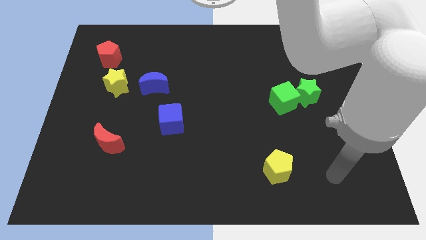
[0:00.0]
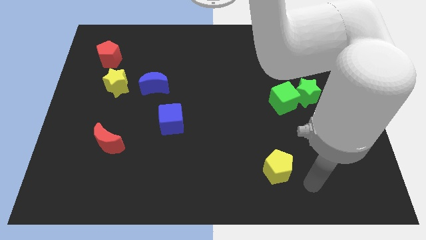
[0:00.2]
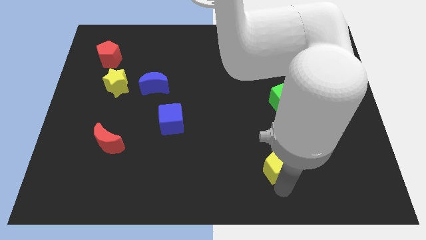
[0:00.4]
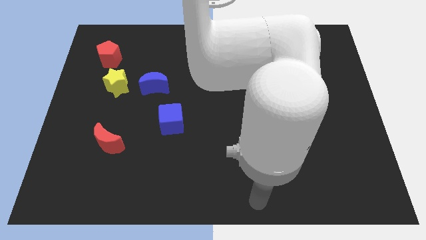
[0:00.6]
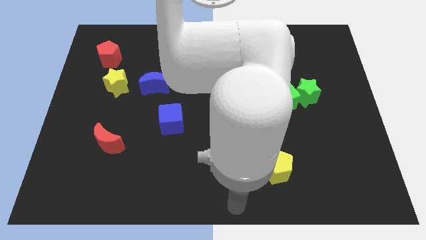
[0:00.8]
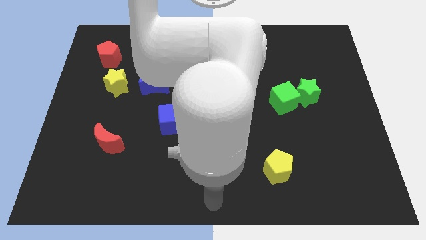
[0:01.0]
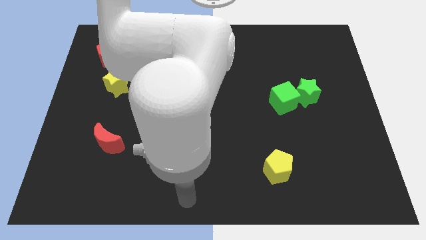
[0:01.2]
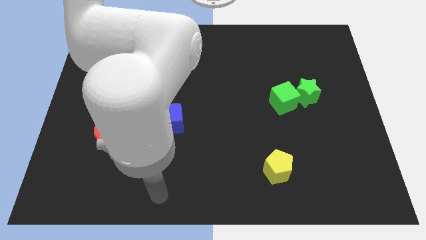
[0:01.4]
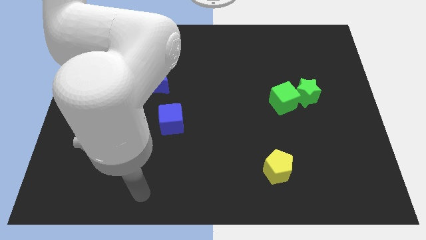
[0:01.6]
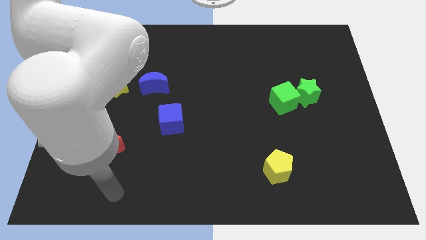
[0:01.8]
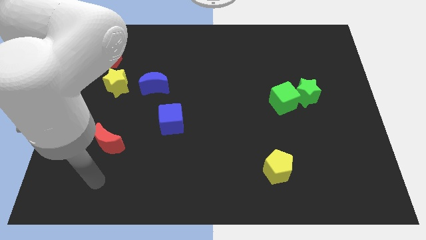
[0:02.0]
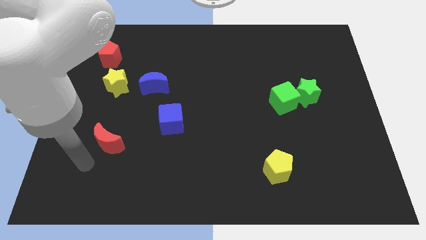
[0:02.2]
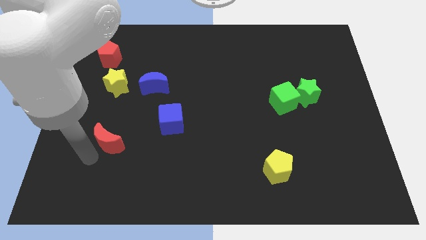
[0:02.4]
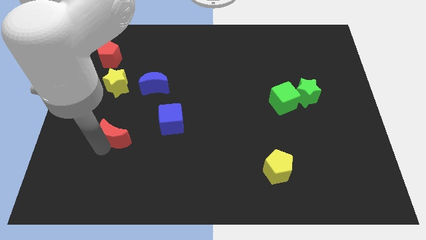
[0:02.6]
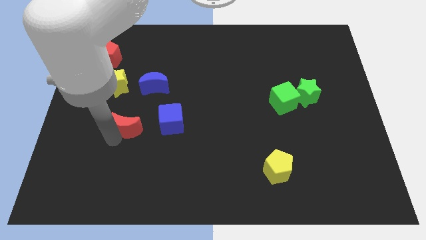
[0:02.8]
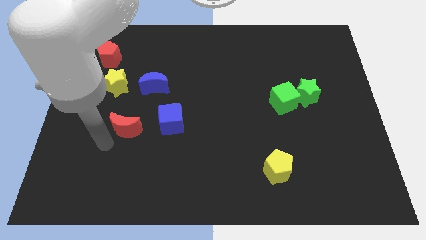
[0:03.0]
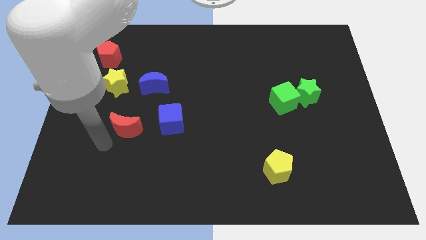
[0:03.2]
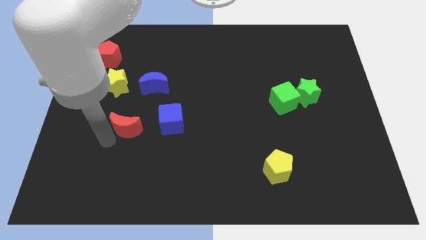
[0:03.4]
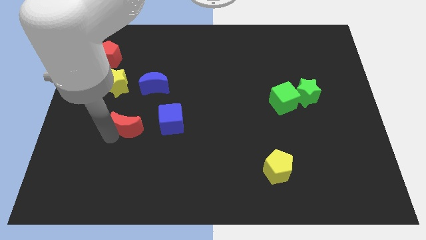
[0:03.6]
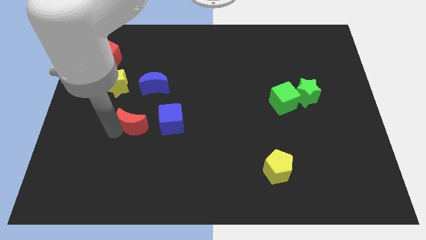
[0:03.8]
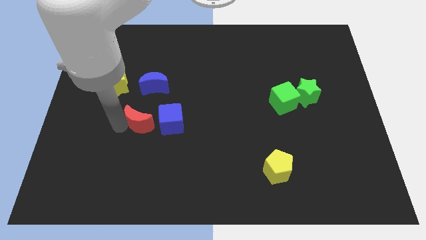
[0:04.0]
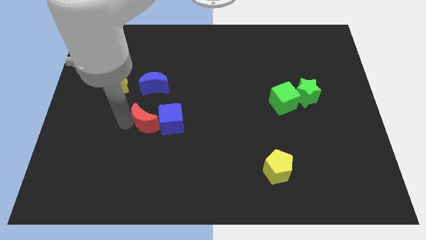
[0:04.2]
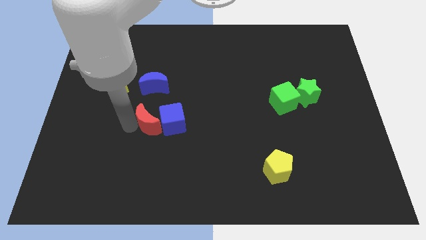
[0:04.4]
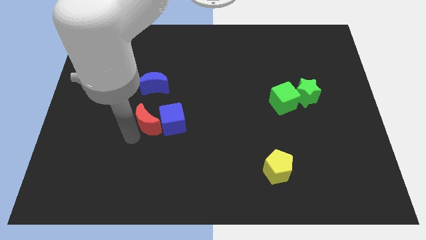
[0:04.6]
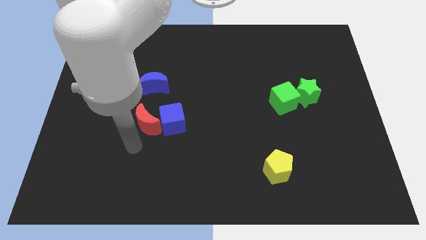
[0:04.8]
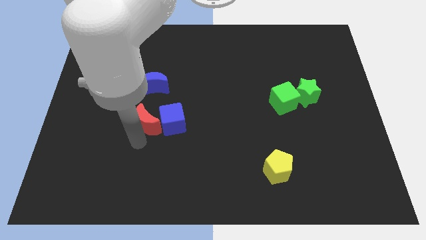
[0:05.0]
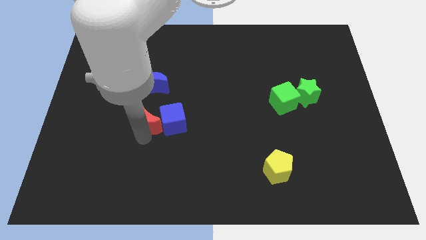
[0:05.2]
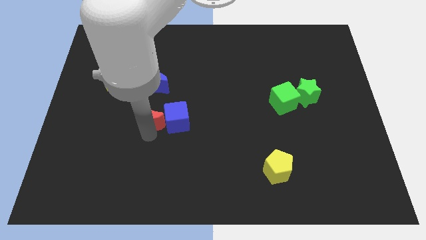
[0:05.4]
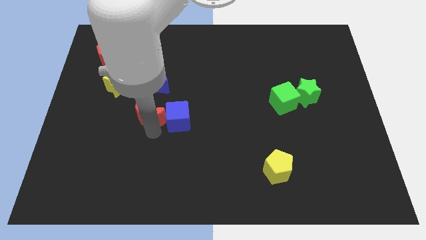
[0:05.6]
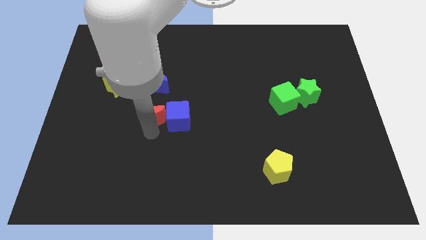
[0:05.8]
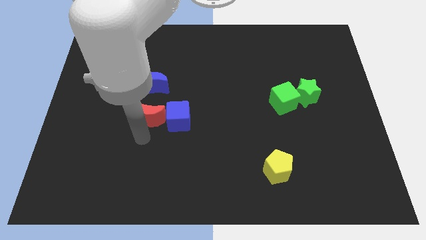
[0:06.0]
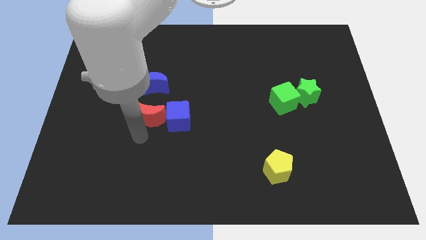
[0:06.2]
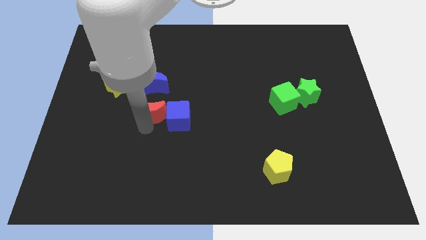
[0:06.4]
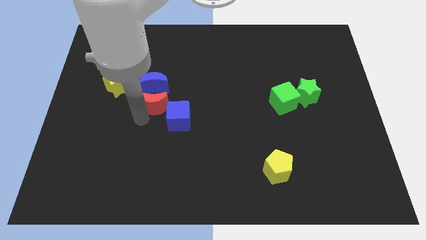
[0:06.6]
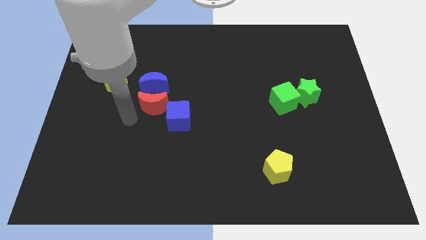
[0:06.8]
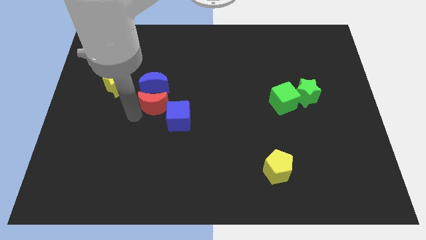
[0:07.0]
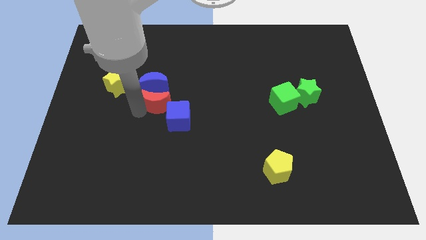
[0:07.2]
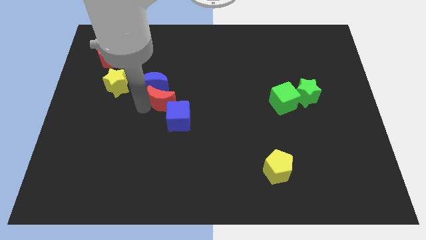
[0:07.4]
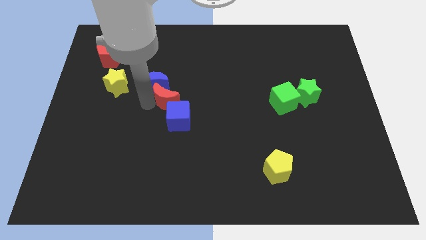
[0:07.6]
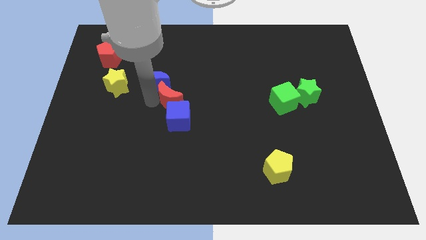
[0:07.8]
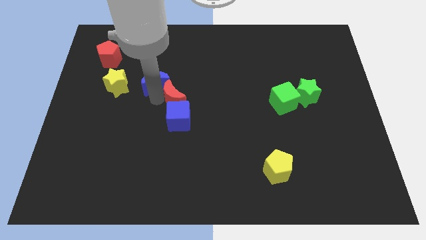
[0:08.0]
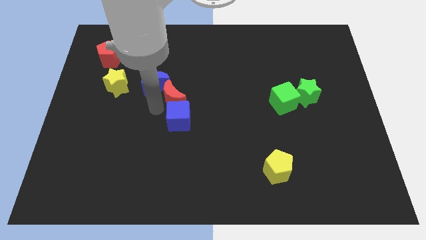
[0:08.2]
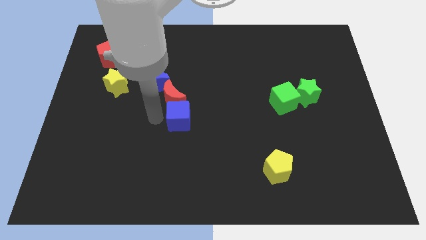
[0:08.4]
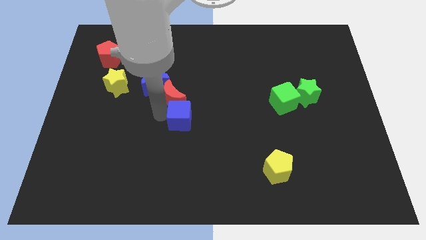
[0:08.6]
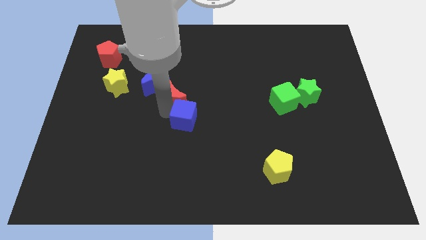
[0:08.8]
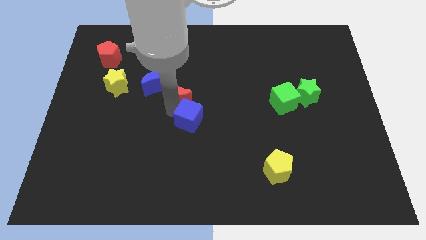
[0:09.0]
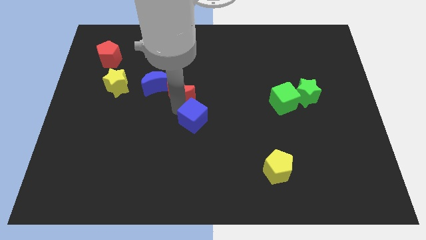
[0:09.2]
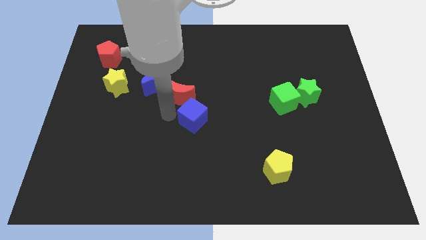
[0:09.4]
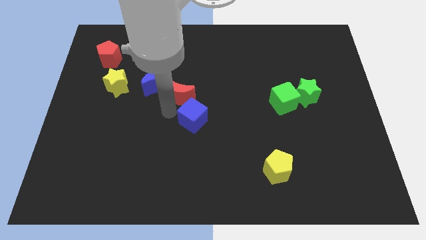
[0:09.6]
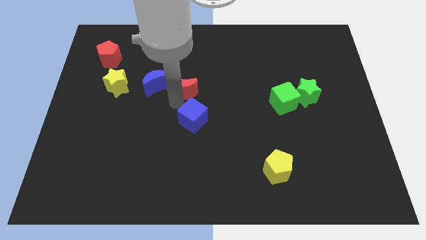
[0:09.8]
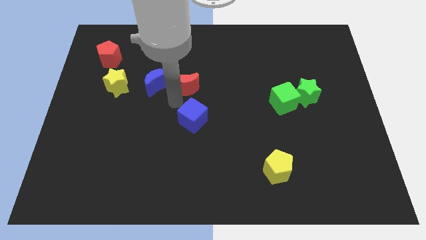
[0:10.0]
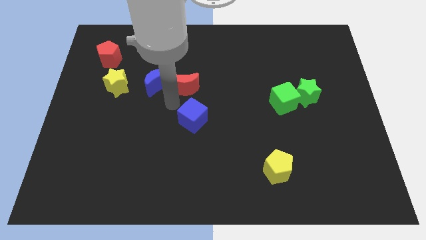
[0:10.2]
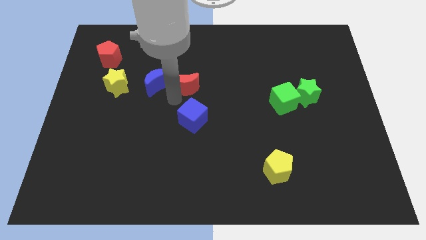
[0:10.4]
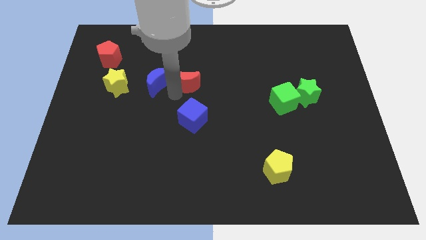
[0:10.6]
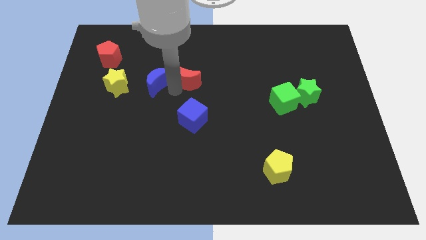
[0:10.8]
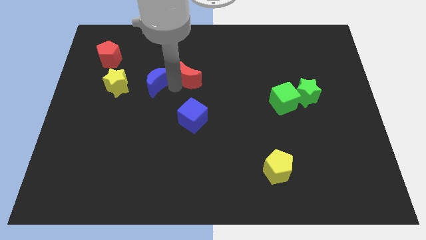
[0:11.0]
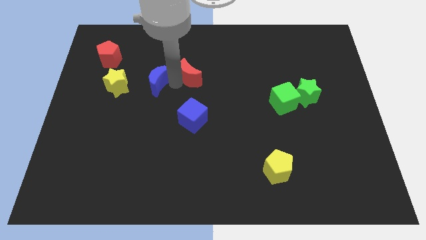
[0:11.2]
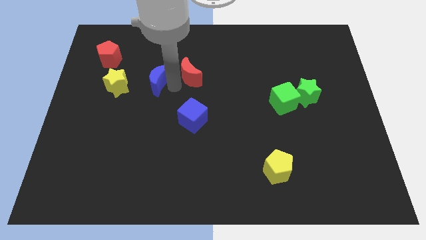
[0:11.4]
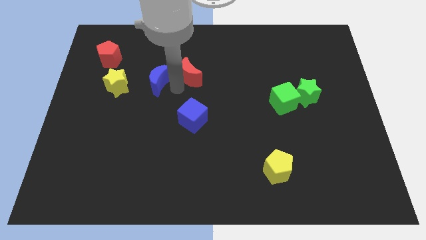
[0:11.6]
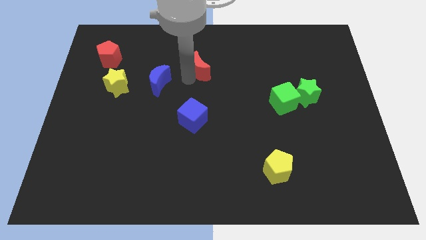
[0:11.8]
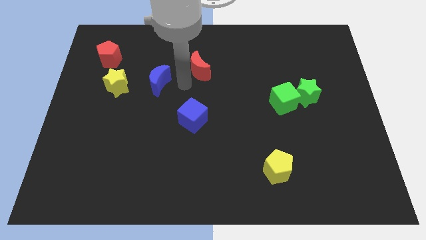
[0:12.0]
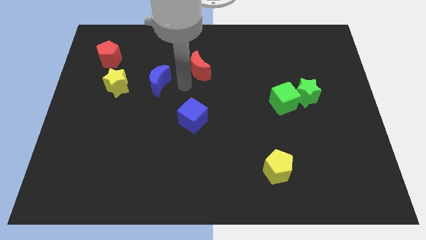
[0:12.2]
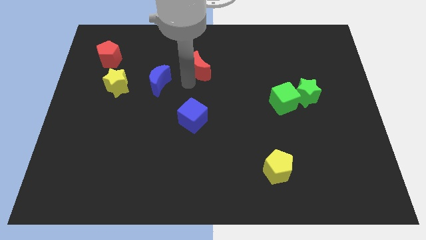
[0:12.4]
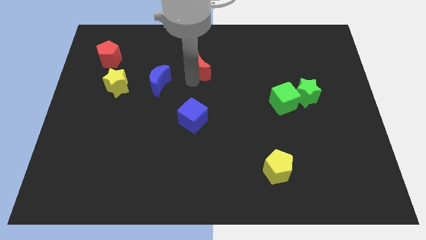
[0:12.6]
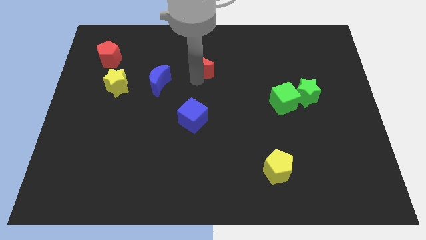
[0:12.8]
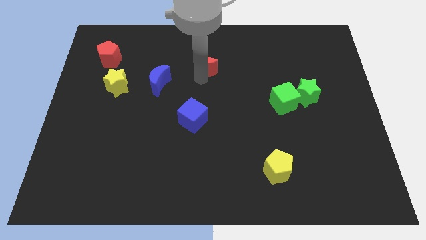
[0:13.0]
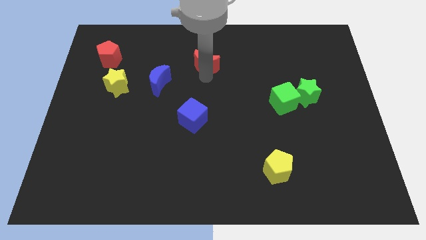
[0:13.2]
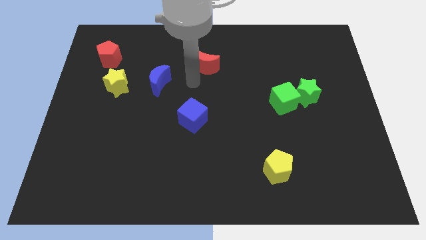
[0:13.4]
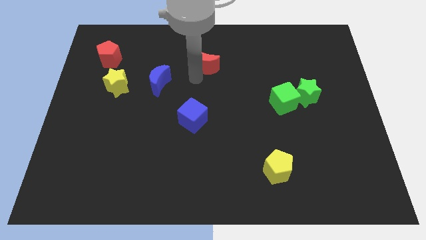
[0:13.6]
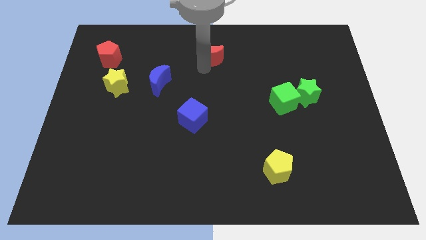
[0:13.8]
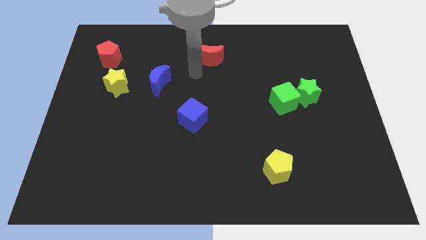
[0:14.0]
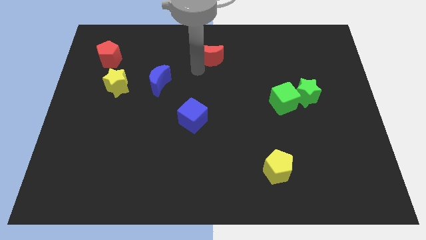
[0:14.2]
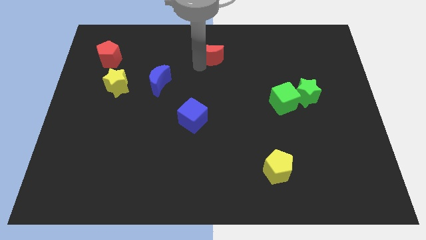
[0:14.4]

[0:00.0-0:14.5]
slide the red moon to the top side
